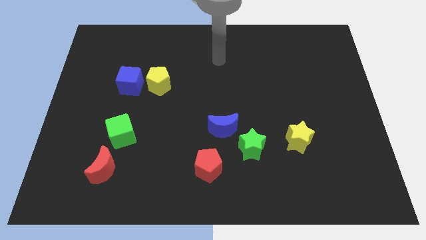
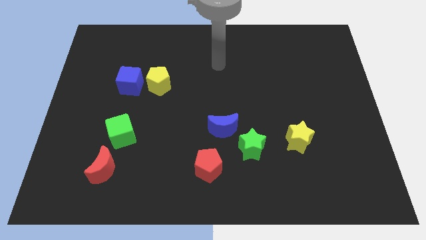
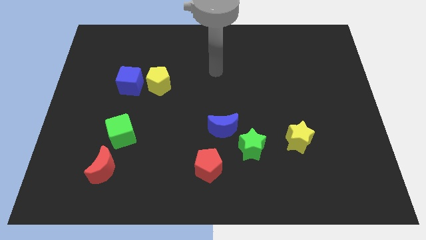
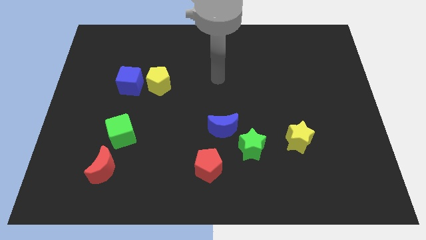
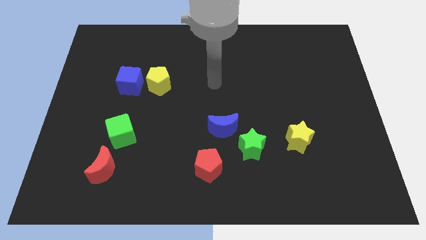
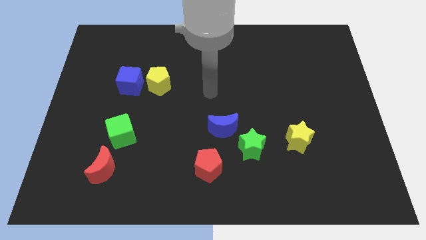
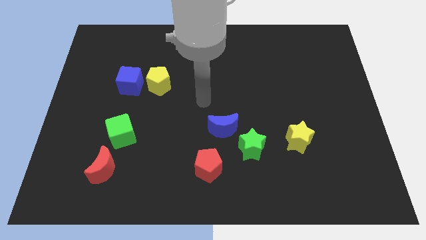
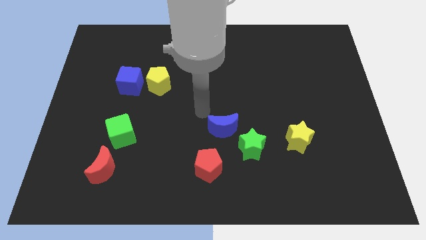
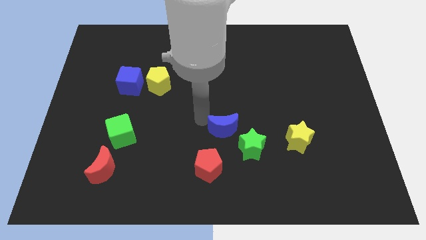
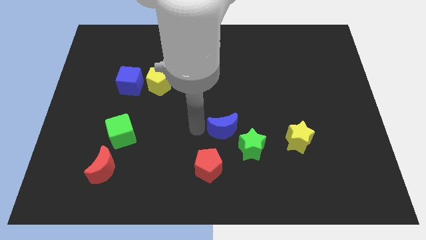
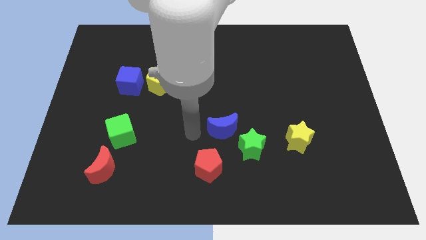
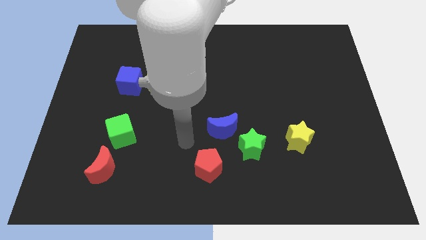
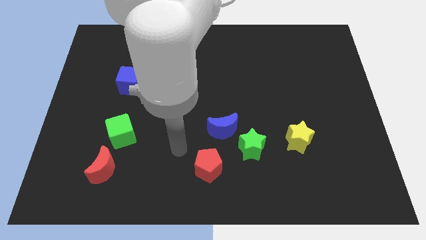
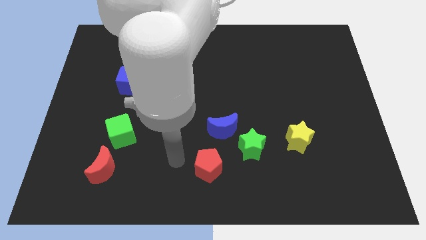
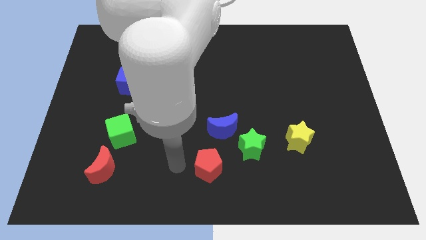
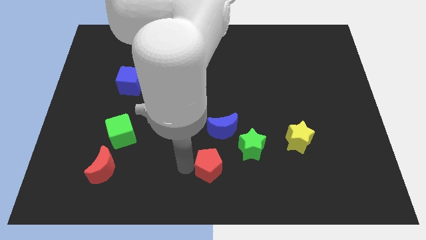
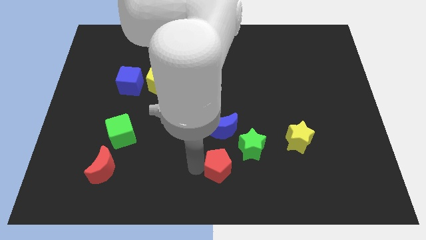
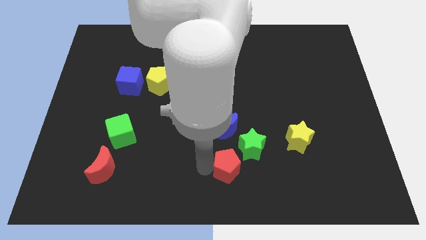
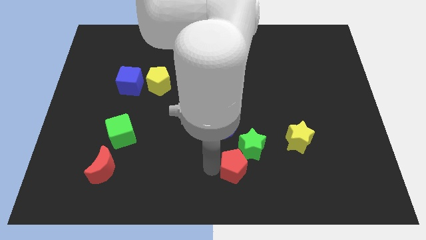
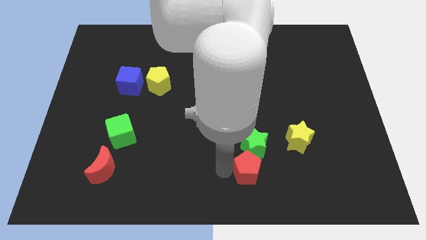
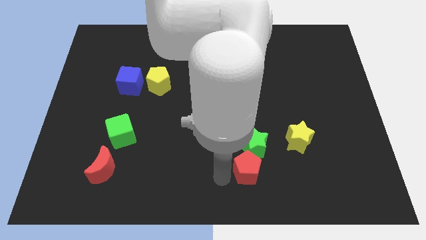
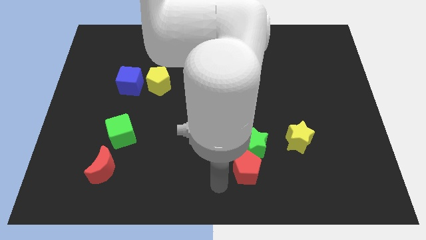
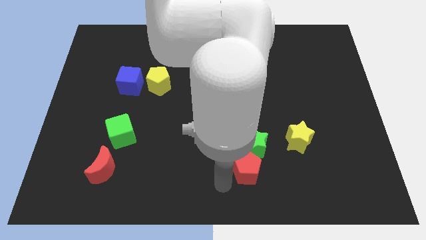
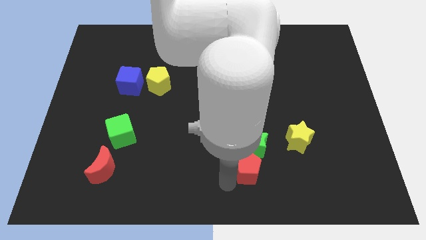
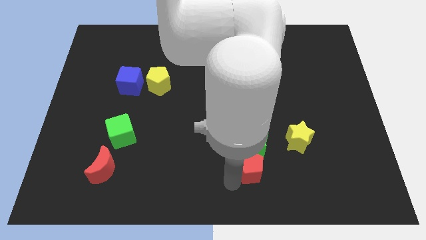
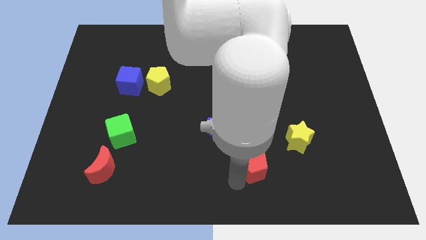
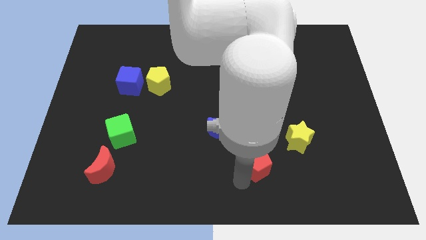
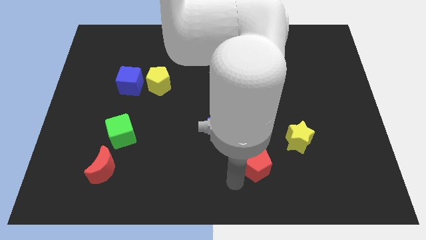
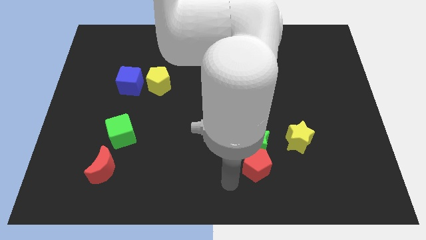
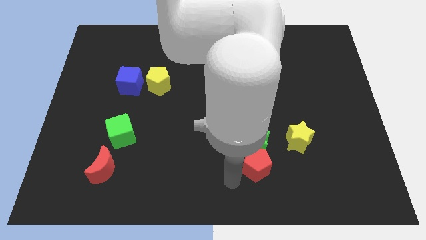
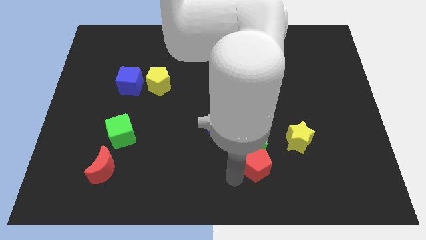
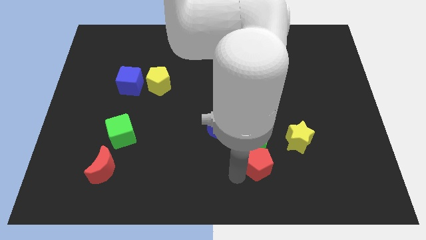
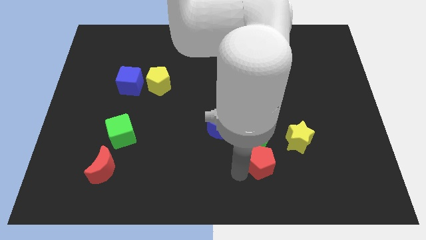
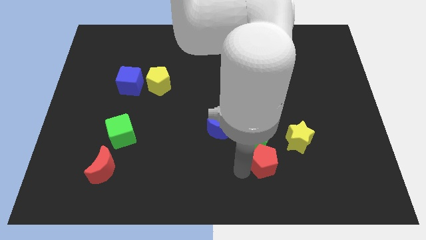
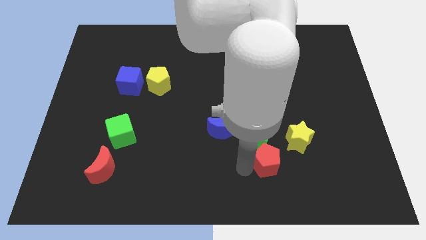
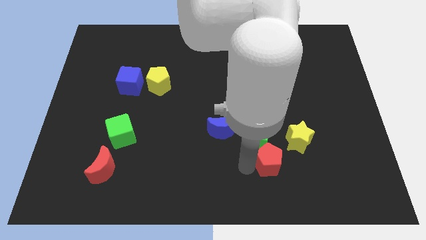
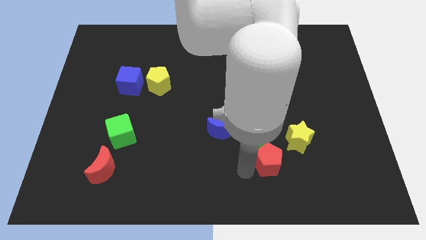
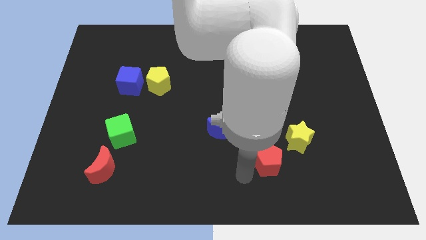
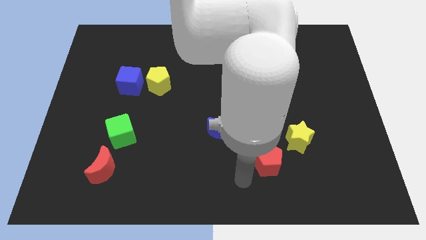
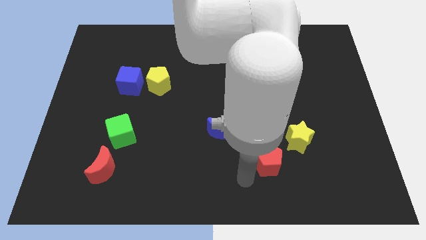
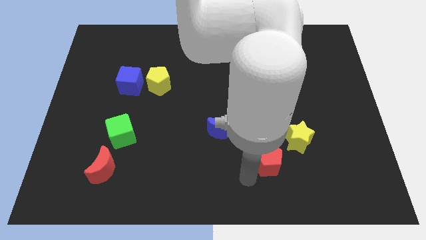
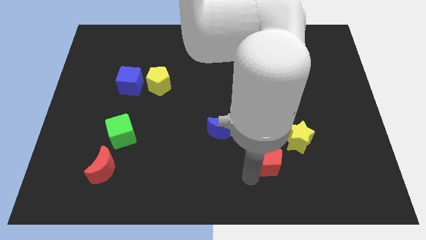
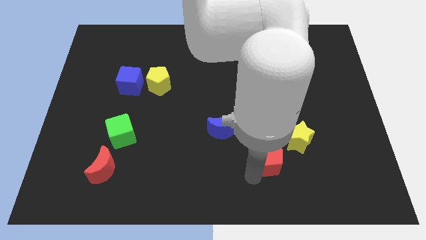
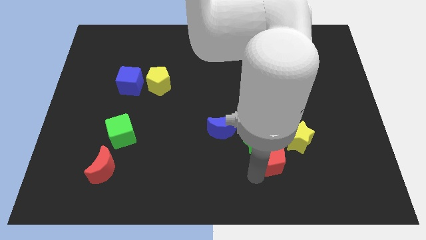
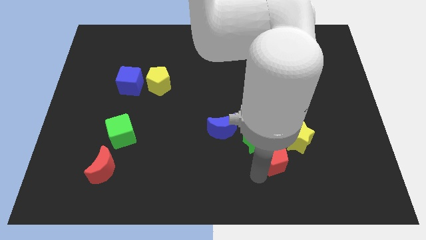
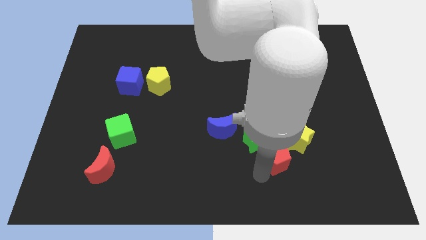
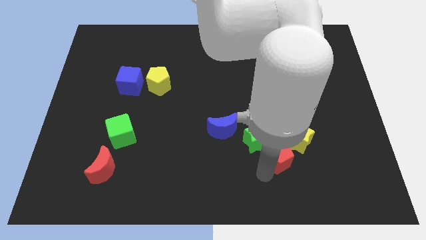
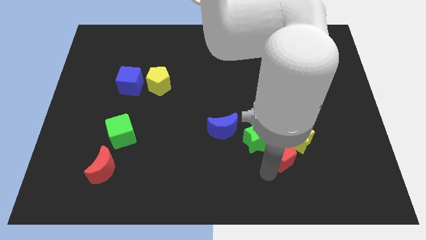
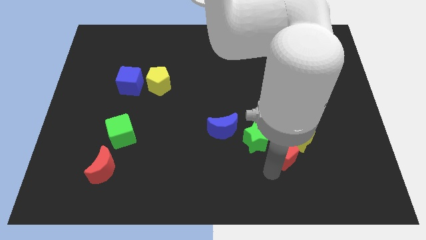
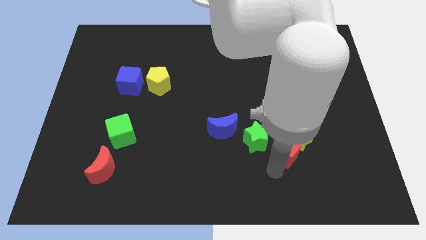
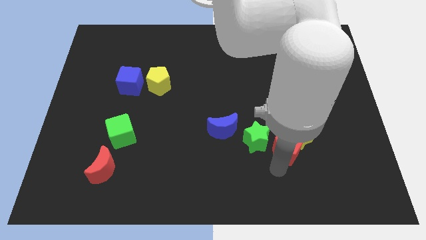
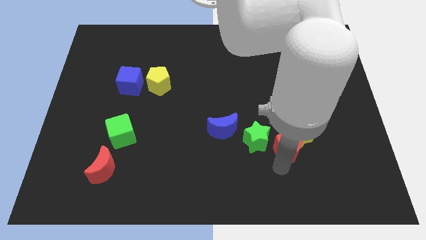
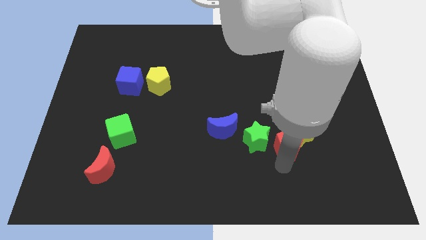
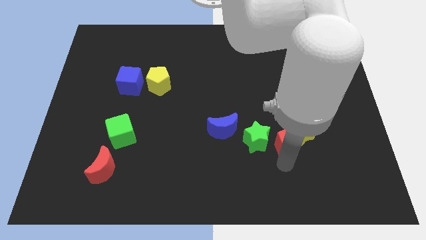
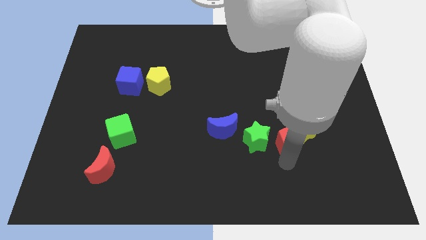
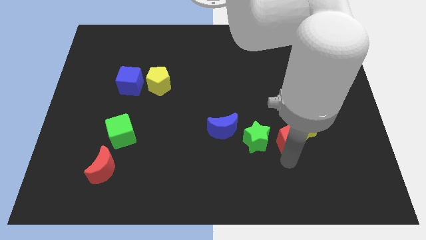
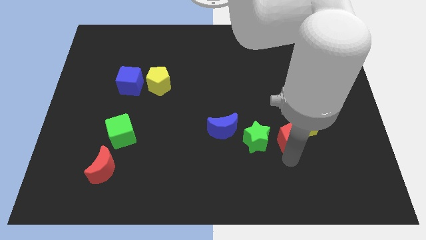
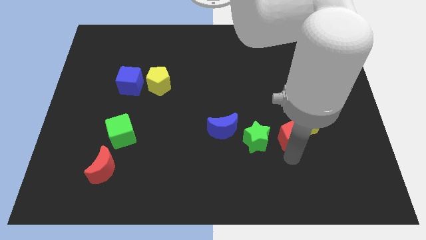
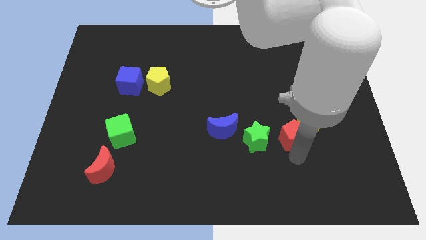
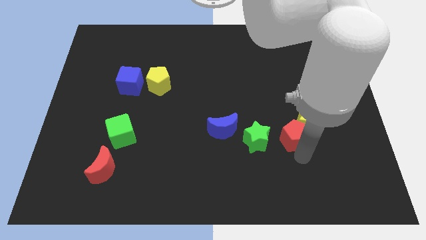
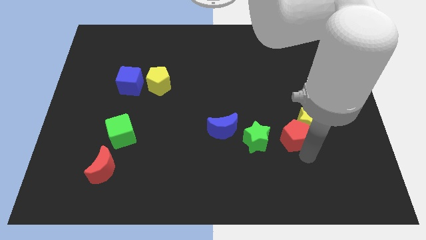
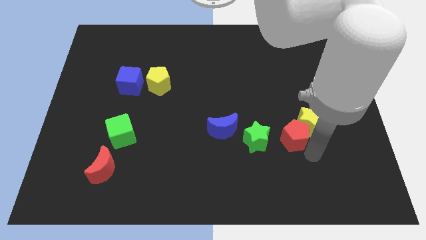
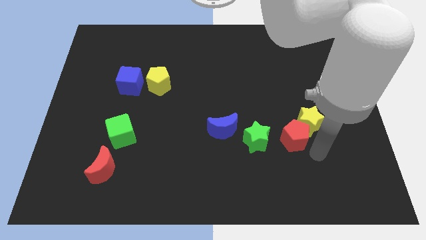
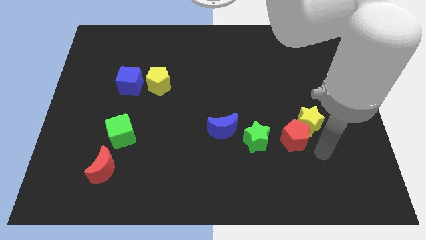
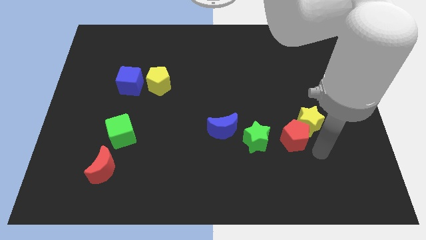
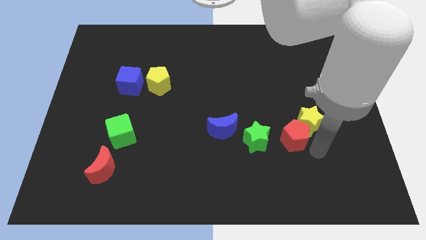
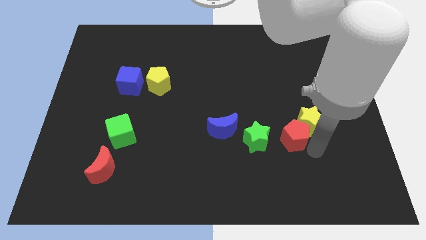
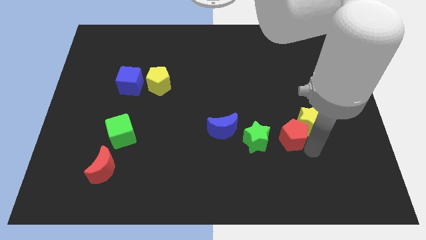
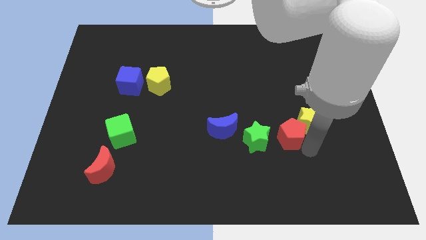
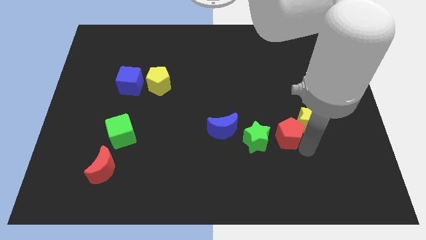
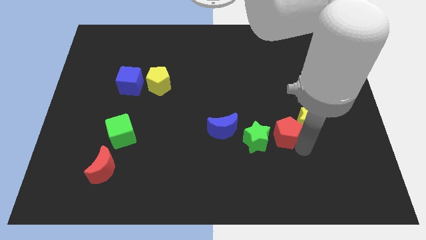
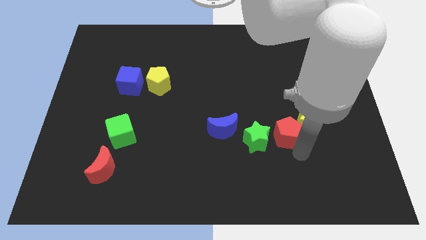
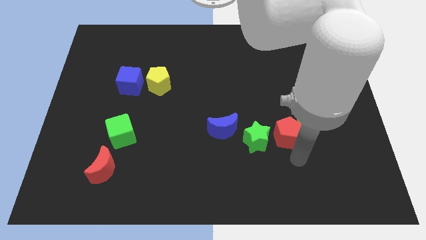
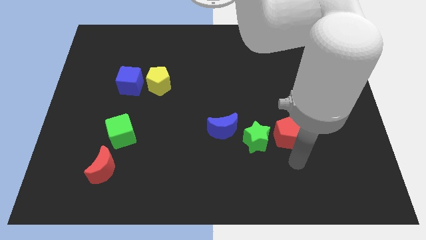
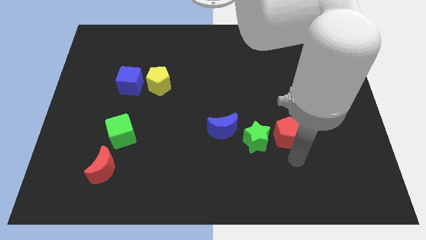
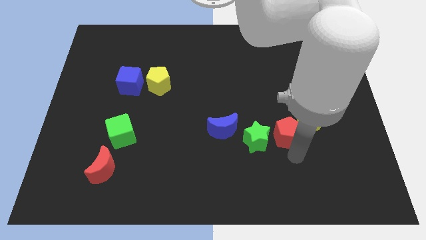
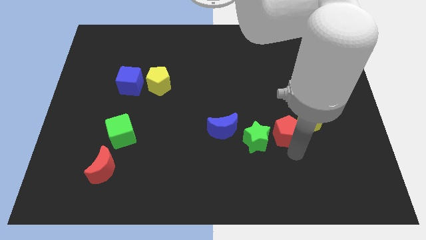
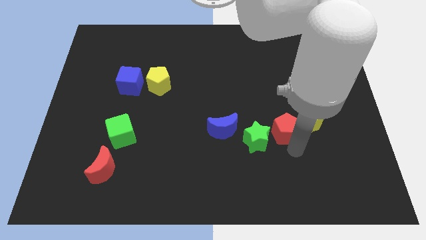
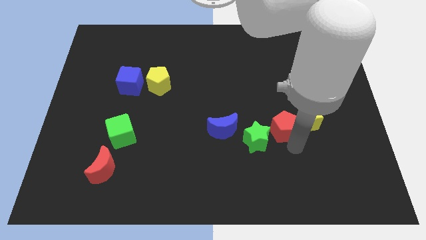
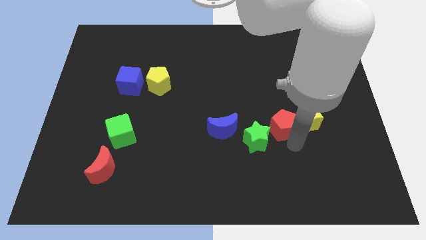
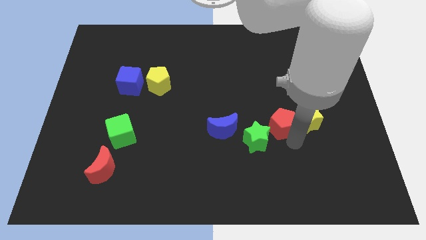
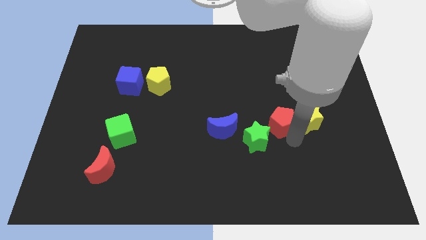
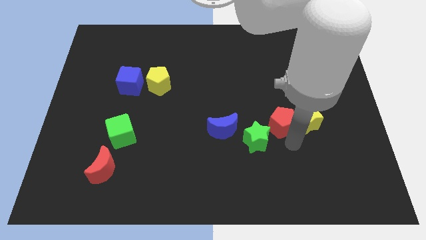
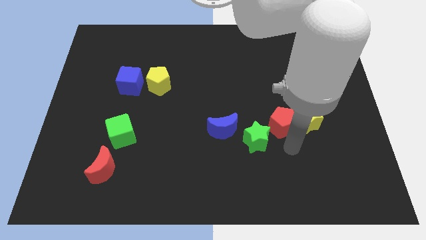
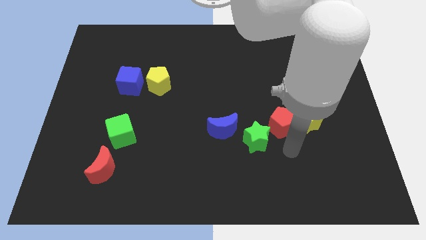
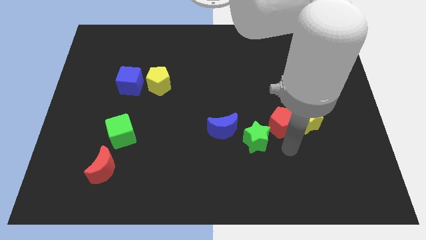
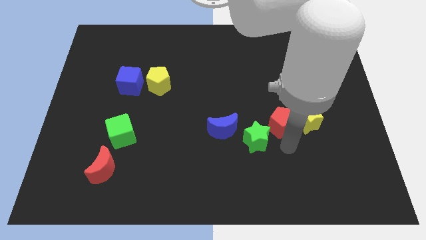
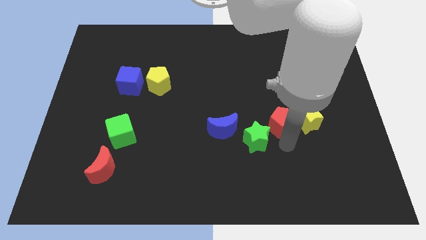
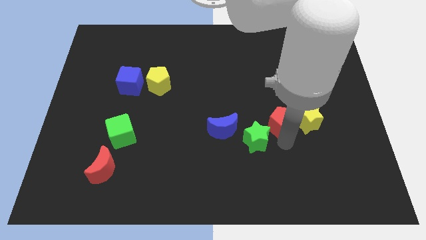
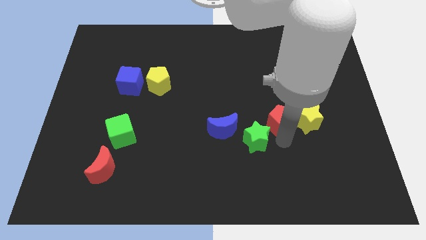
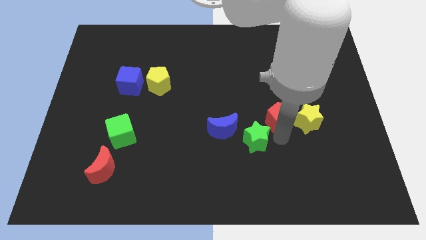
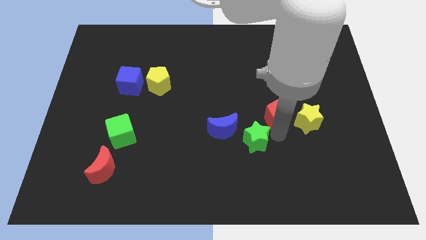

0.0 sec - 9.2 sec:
push the red pentagon upwards and right diagonally
